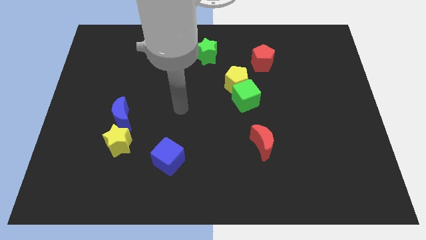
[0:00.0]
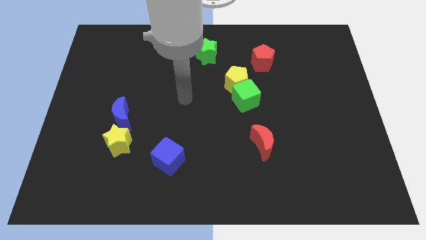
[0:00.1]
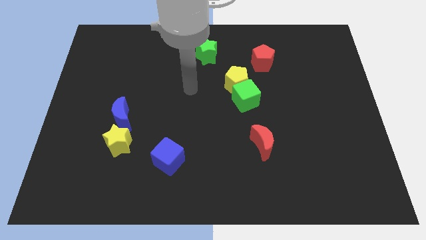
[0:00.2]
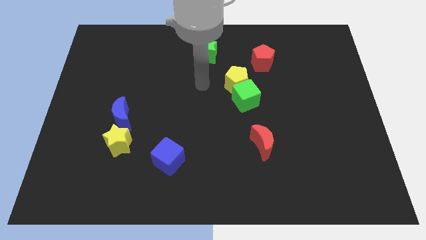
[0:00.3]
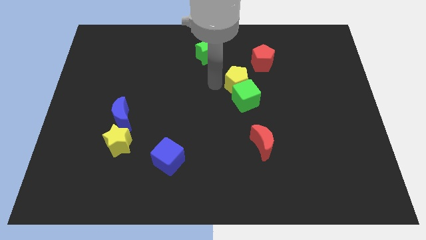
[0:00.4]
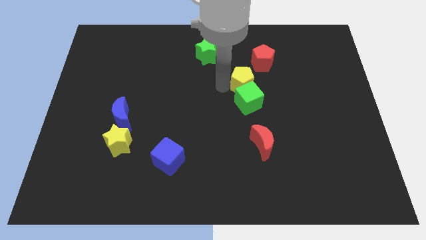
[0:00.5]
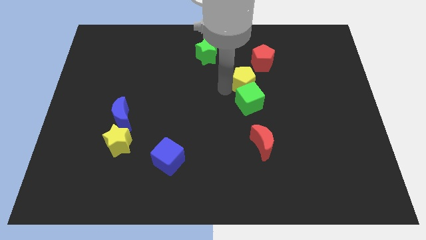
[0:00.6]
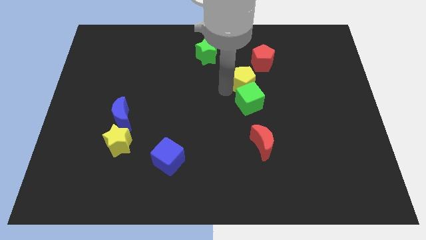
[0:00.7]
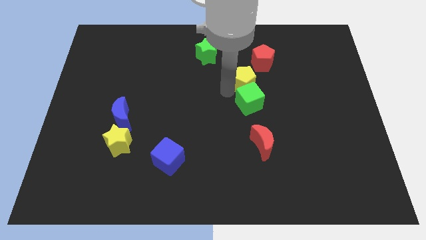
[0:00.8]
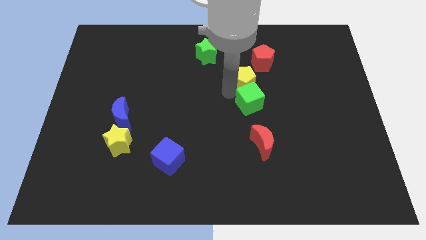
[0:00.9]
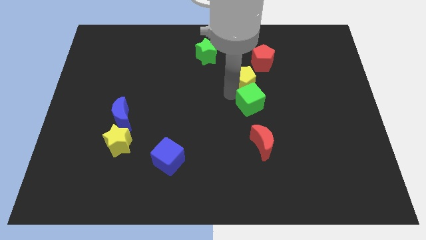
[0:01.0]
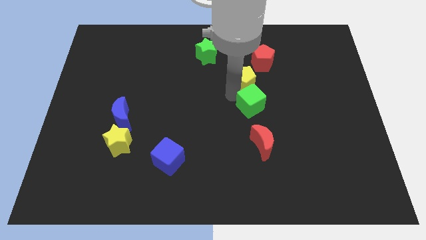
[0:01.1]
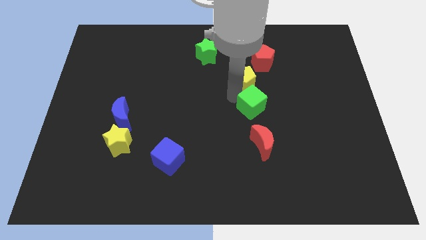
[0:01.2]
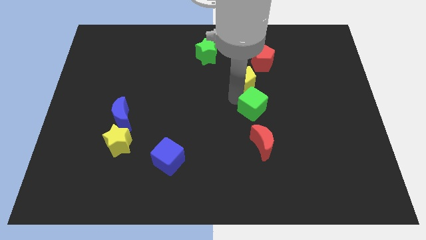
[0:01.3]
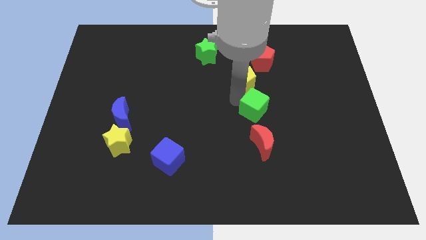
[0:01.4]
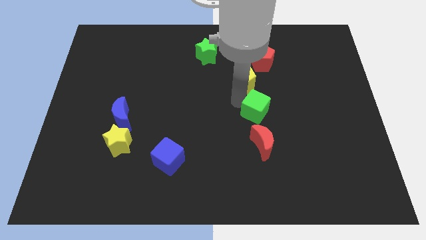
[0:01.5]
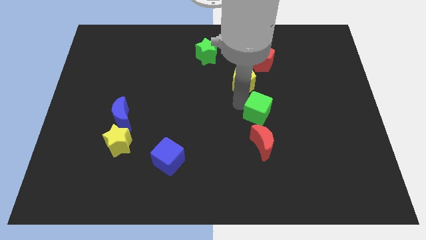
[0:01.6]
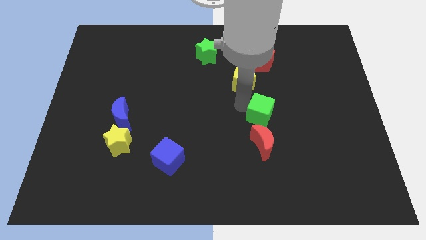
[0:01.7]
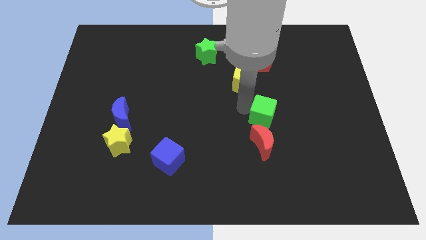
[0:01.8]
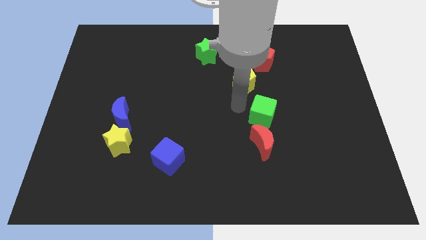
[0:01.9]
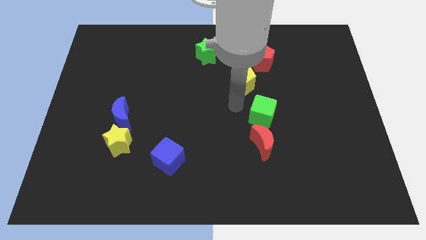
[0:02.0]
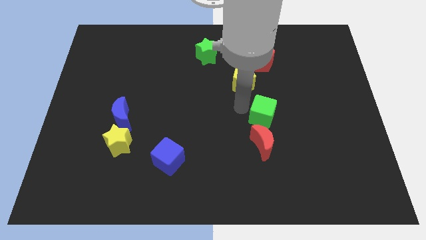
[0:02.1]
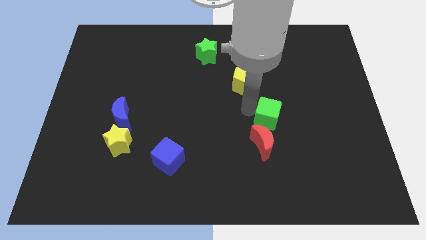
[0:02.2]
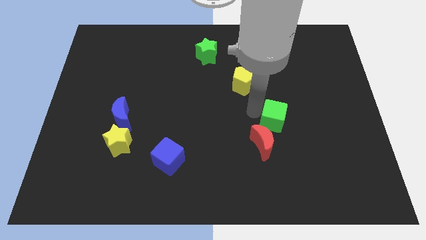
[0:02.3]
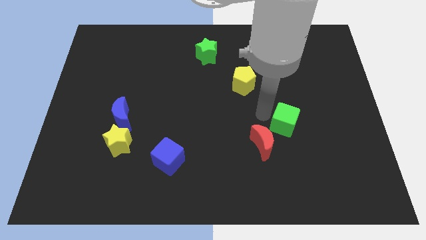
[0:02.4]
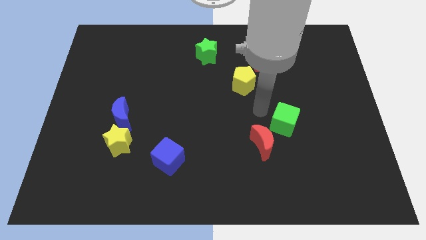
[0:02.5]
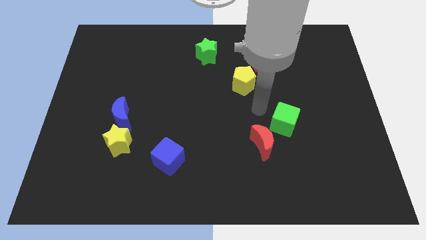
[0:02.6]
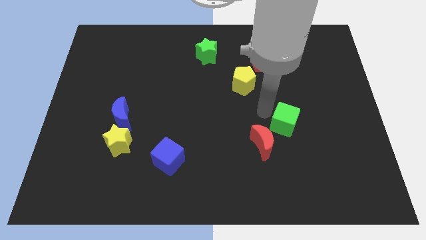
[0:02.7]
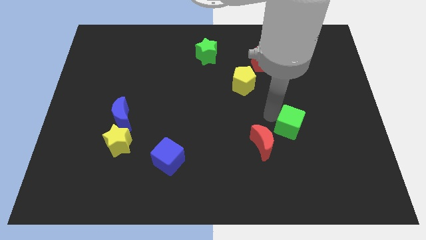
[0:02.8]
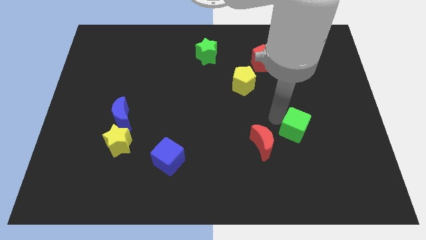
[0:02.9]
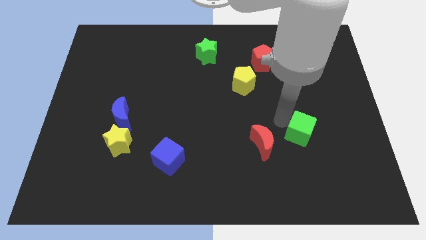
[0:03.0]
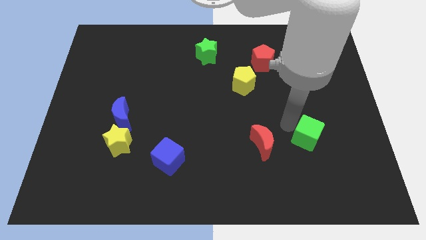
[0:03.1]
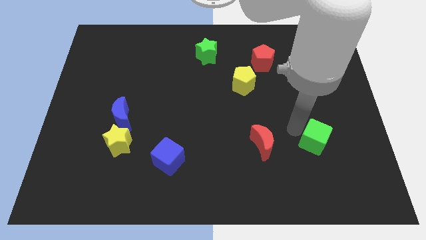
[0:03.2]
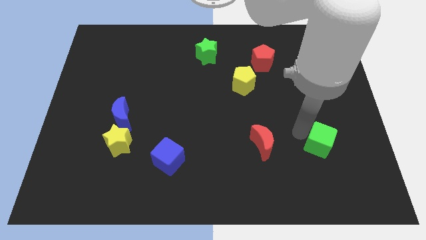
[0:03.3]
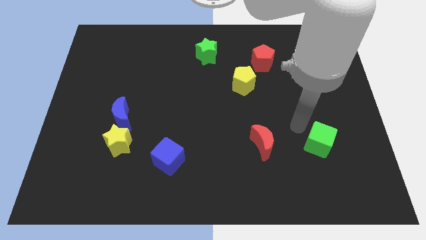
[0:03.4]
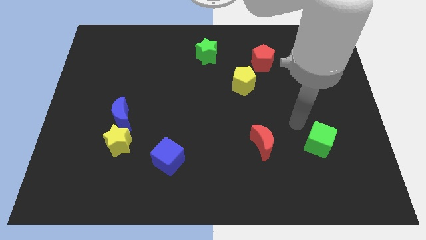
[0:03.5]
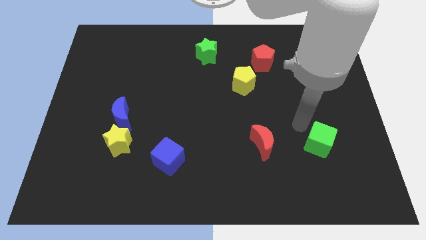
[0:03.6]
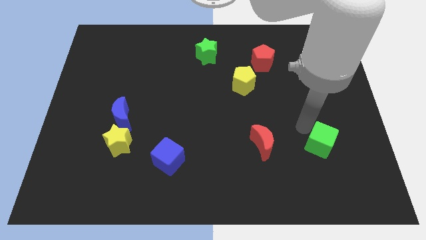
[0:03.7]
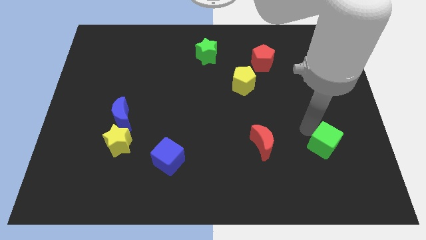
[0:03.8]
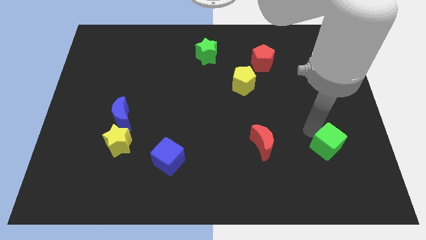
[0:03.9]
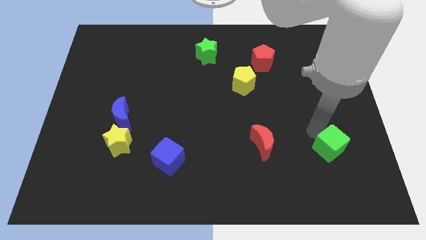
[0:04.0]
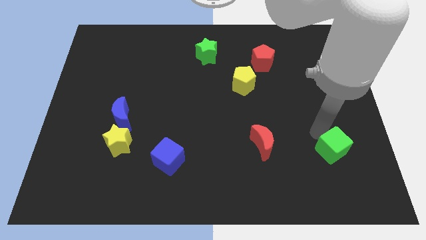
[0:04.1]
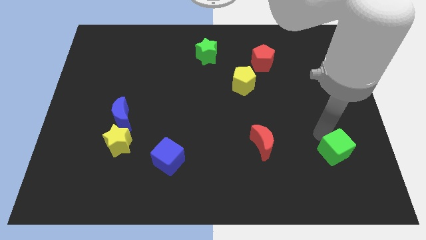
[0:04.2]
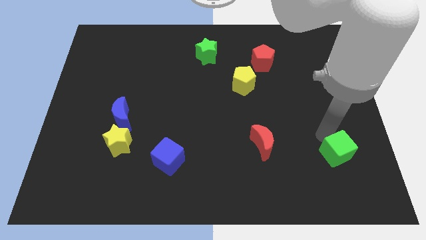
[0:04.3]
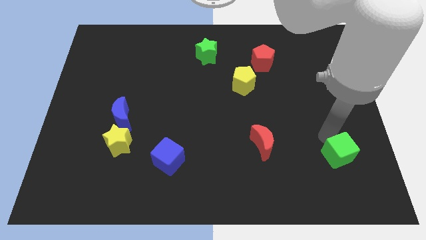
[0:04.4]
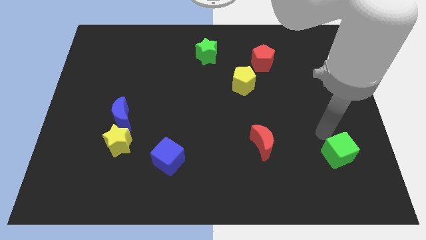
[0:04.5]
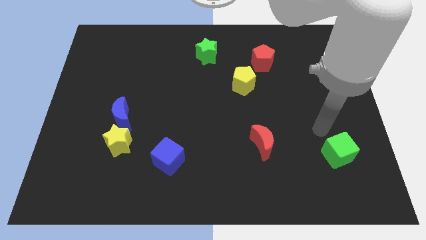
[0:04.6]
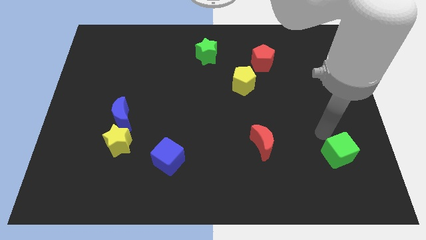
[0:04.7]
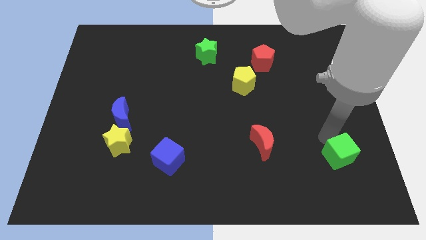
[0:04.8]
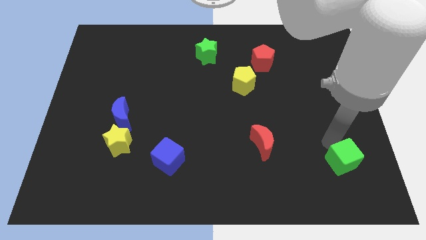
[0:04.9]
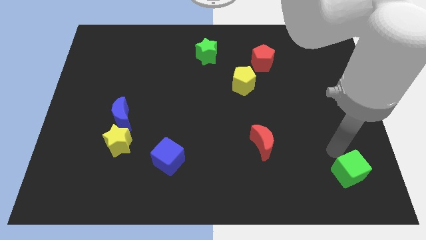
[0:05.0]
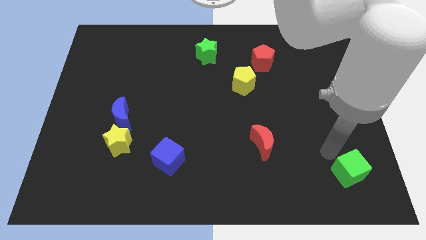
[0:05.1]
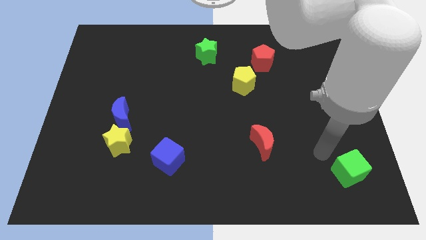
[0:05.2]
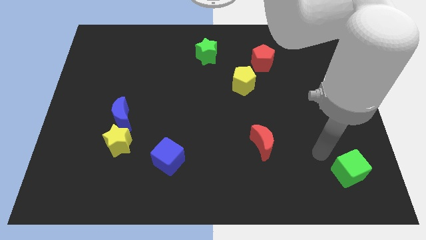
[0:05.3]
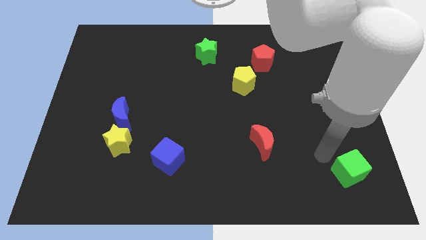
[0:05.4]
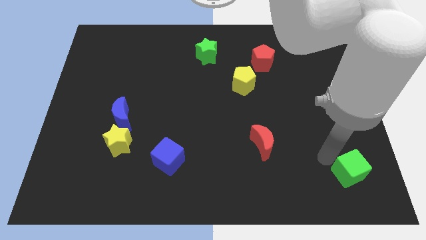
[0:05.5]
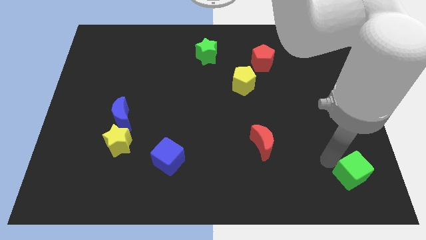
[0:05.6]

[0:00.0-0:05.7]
slide the green cube to the bottom right corner
